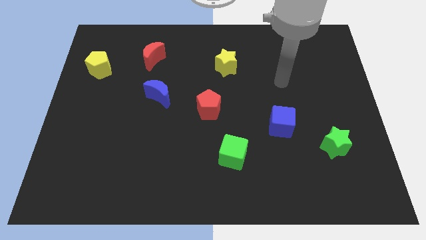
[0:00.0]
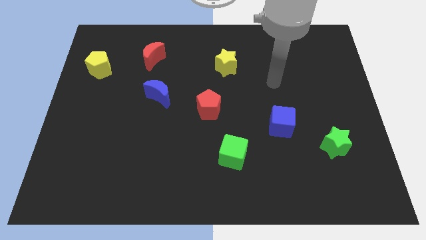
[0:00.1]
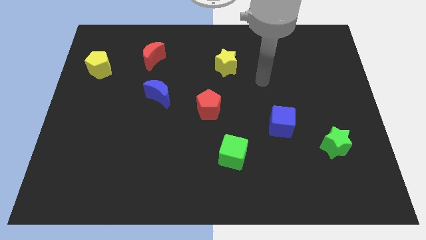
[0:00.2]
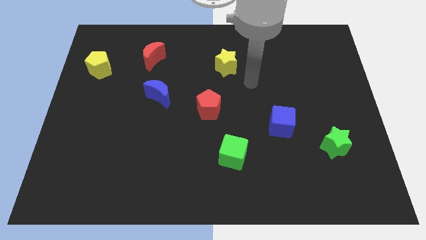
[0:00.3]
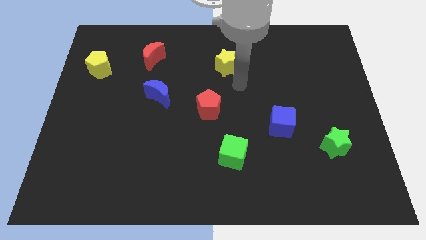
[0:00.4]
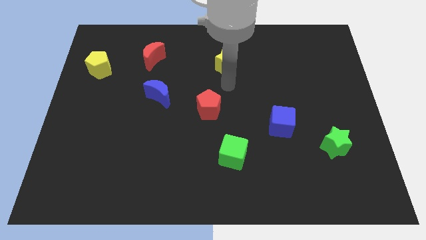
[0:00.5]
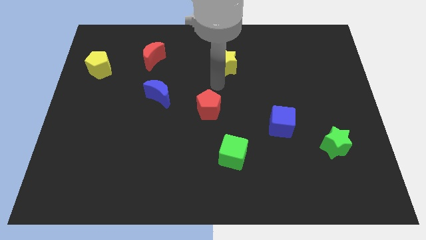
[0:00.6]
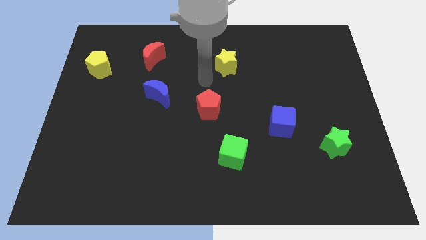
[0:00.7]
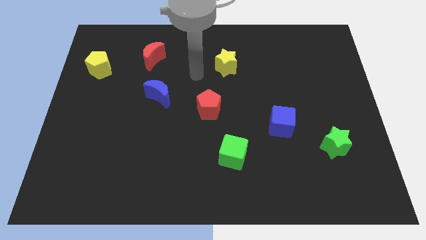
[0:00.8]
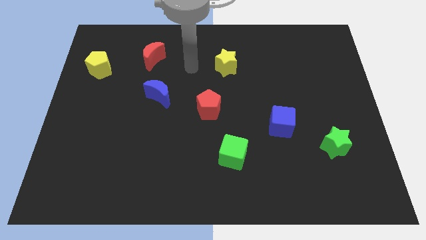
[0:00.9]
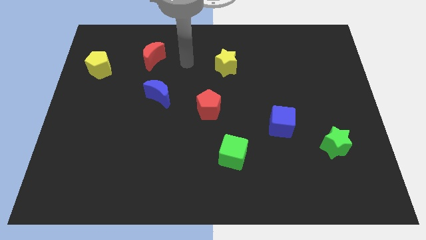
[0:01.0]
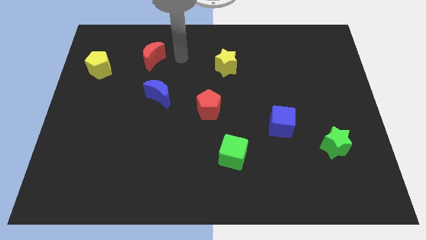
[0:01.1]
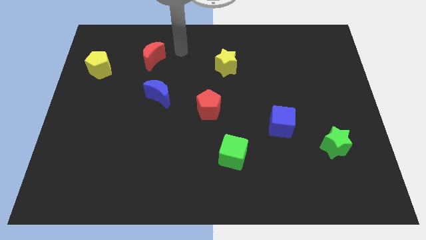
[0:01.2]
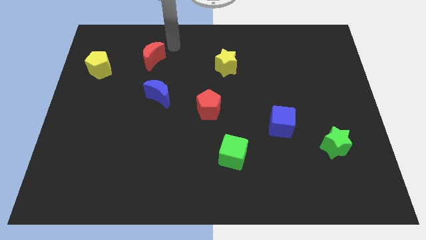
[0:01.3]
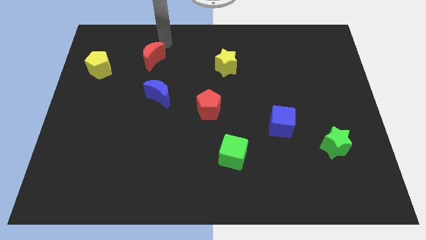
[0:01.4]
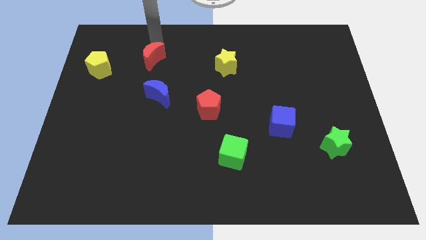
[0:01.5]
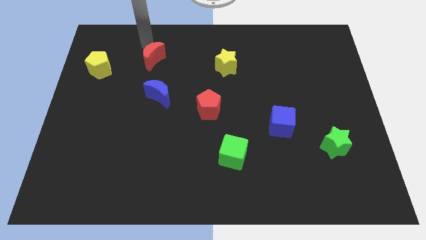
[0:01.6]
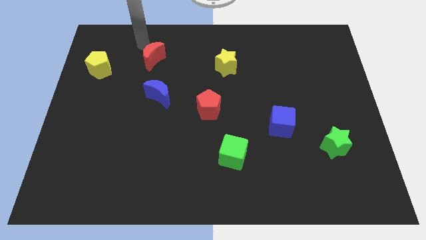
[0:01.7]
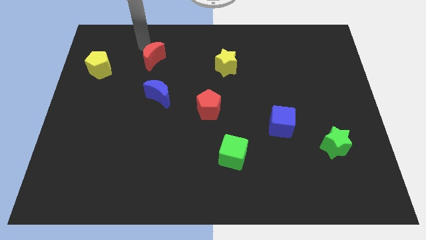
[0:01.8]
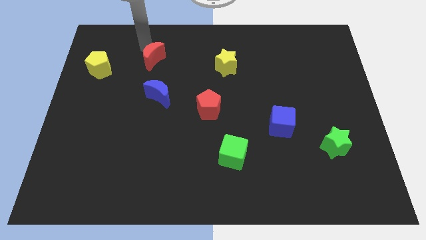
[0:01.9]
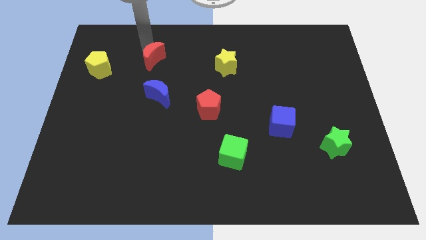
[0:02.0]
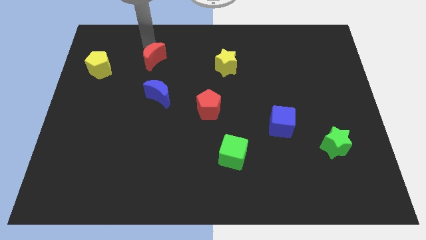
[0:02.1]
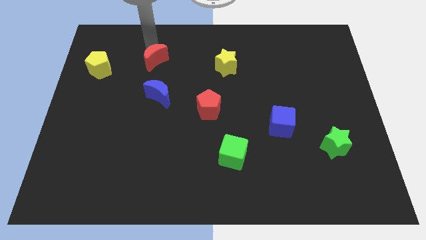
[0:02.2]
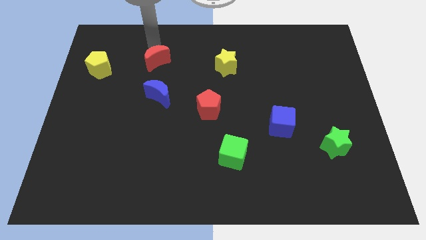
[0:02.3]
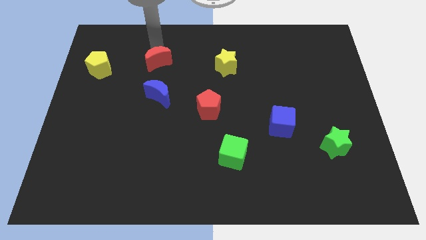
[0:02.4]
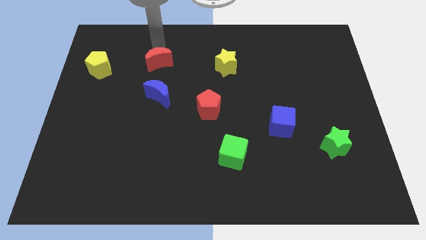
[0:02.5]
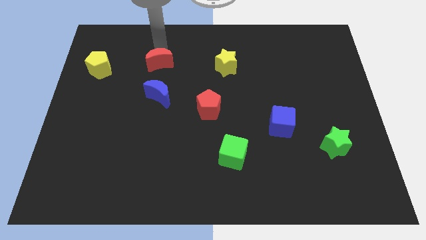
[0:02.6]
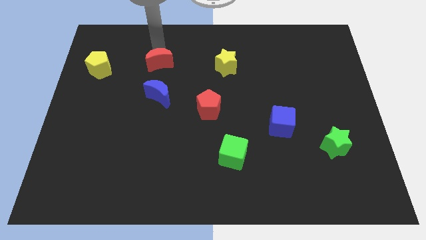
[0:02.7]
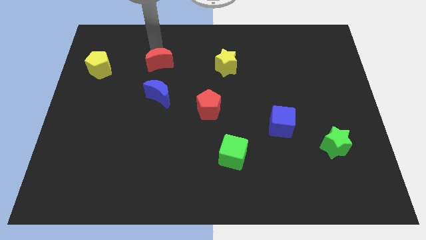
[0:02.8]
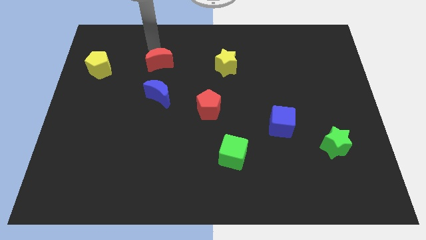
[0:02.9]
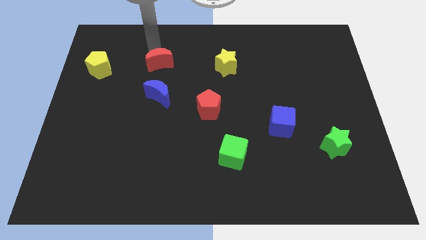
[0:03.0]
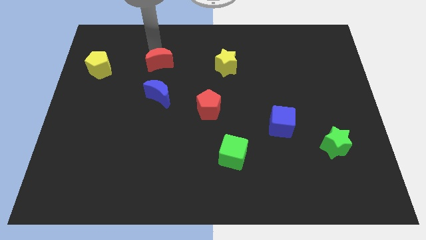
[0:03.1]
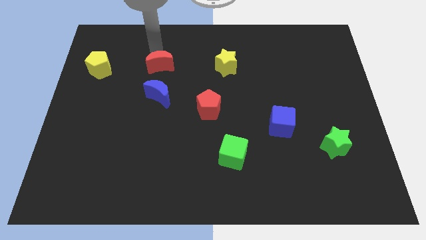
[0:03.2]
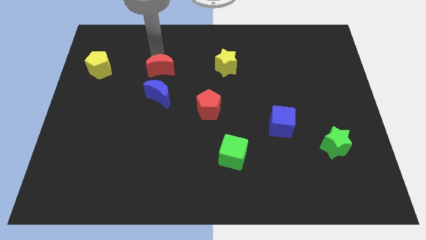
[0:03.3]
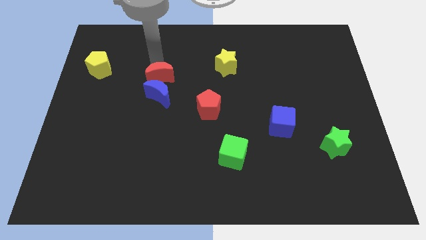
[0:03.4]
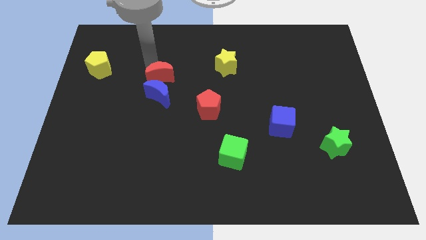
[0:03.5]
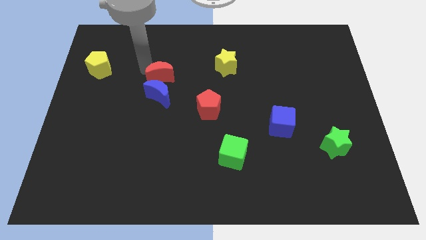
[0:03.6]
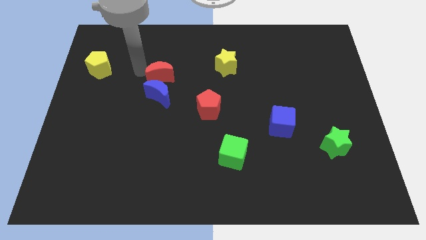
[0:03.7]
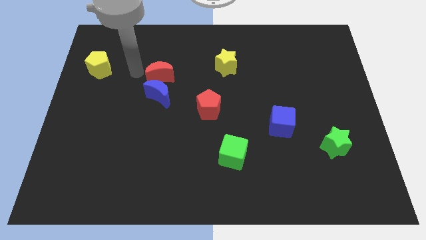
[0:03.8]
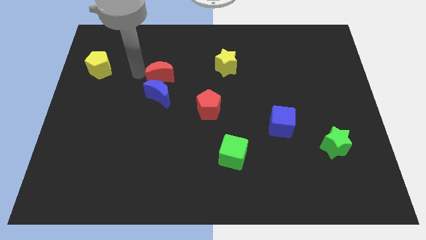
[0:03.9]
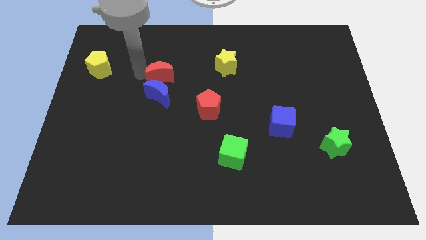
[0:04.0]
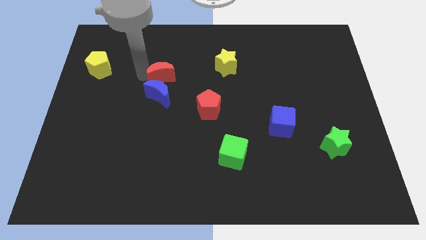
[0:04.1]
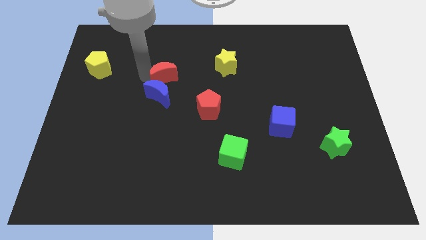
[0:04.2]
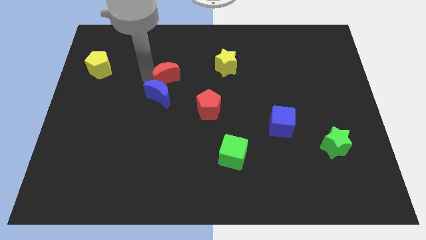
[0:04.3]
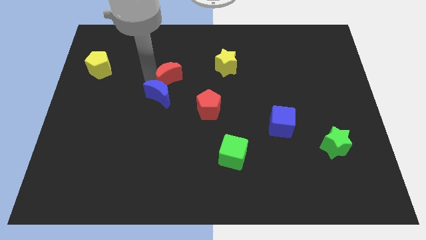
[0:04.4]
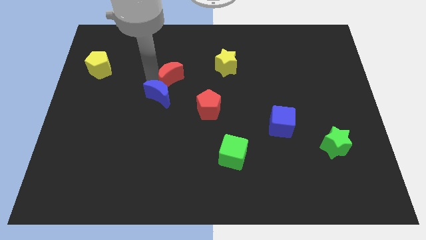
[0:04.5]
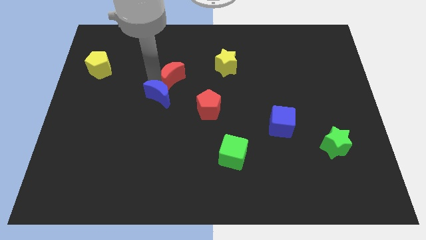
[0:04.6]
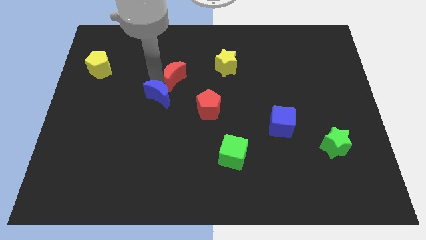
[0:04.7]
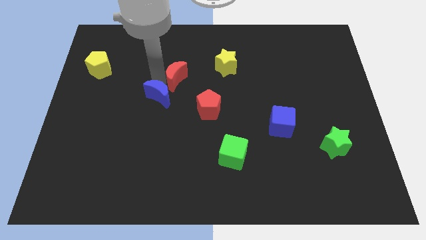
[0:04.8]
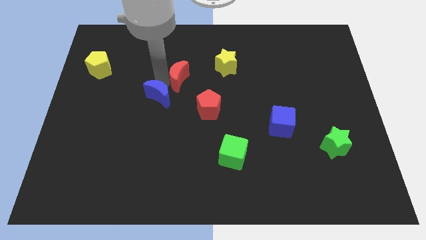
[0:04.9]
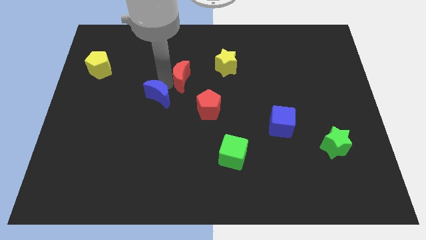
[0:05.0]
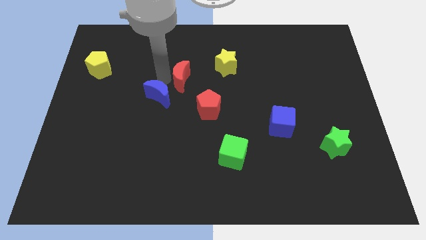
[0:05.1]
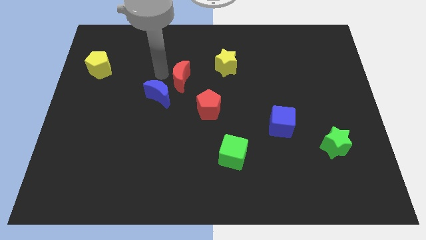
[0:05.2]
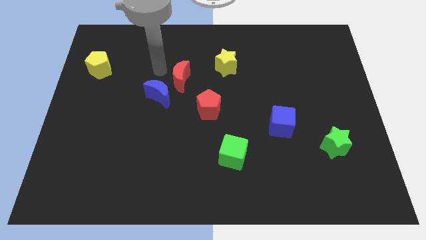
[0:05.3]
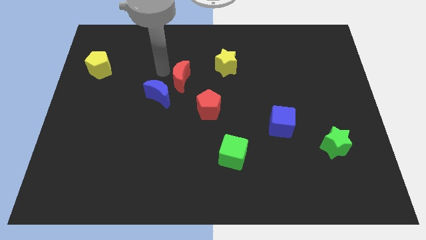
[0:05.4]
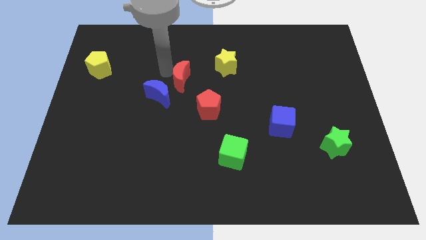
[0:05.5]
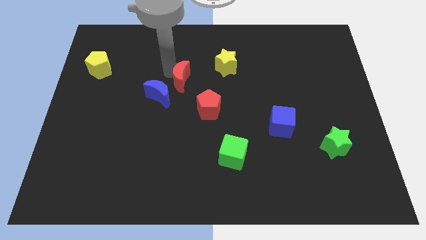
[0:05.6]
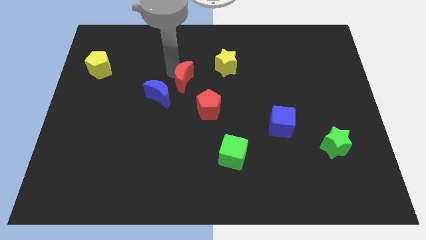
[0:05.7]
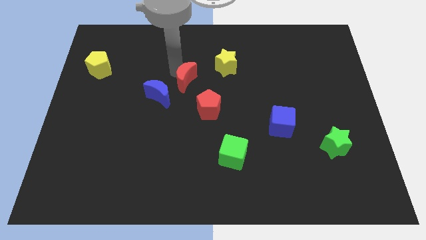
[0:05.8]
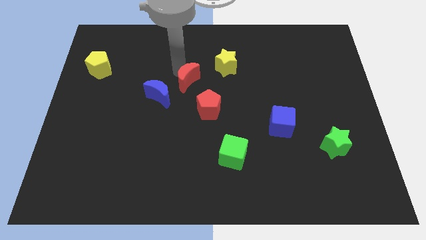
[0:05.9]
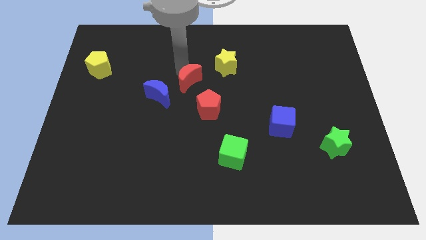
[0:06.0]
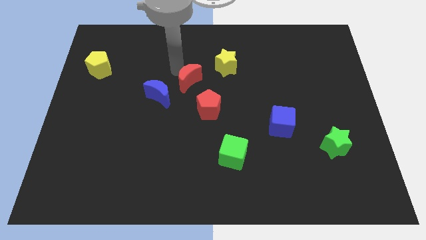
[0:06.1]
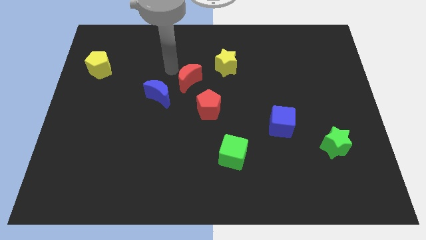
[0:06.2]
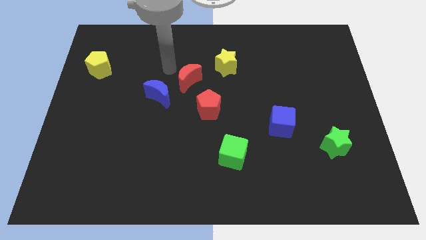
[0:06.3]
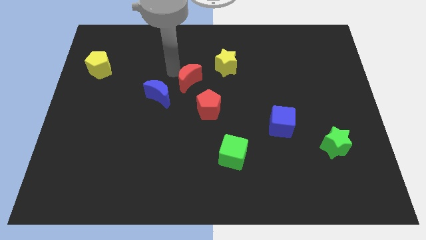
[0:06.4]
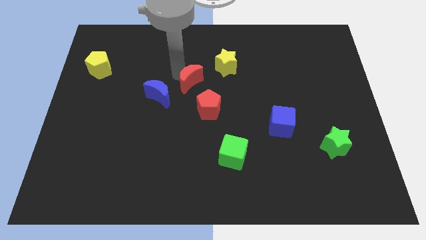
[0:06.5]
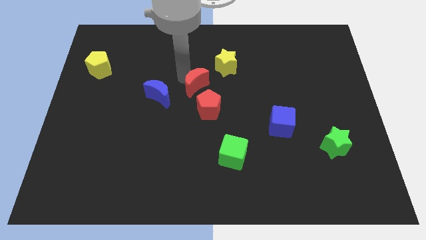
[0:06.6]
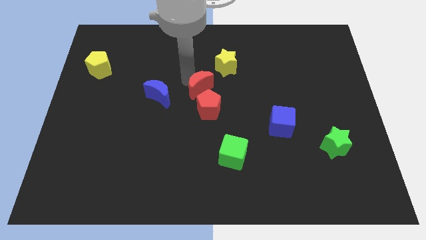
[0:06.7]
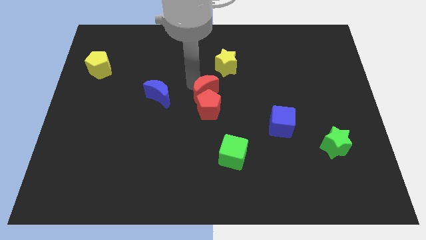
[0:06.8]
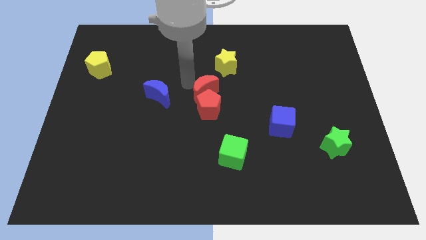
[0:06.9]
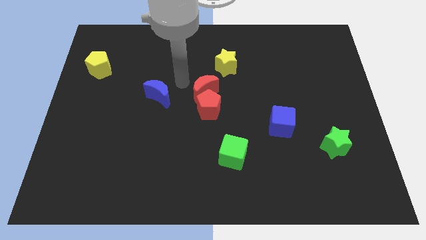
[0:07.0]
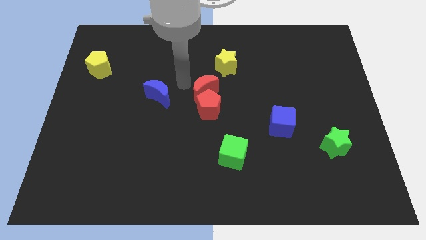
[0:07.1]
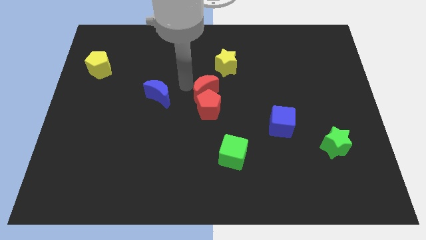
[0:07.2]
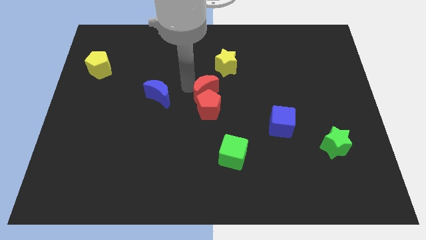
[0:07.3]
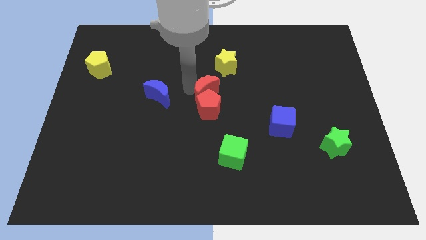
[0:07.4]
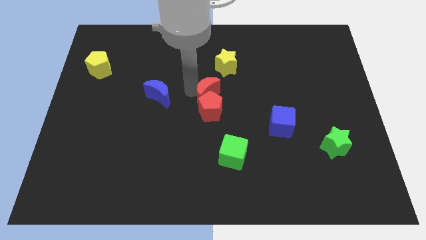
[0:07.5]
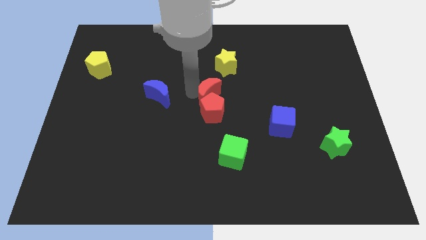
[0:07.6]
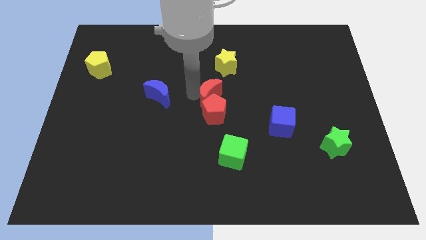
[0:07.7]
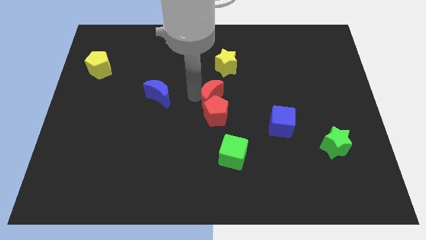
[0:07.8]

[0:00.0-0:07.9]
move the red moon down and to the right
